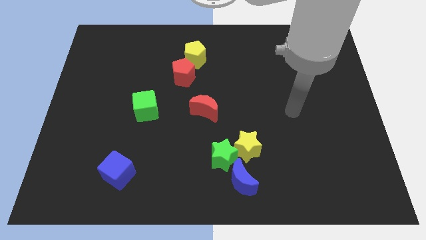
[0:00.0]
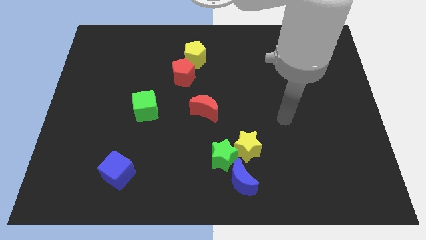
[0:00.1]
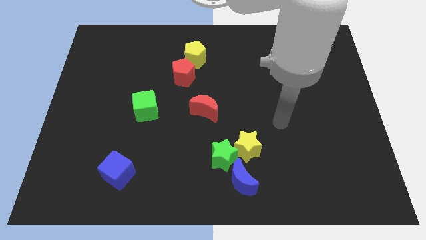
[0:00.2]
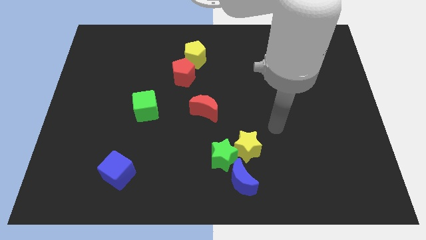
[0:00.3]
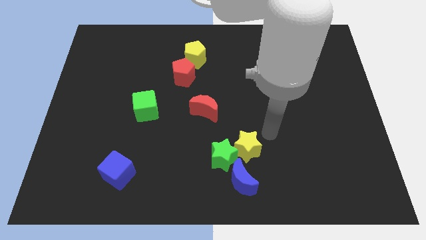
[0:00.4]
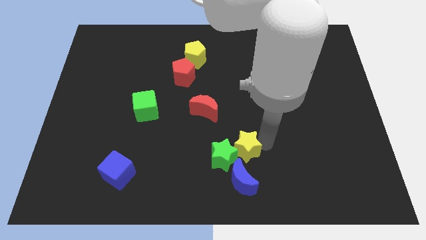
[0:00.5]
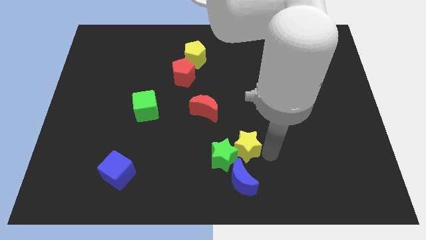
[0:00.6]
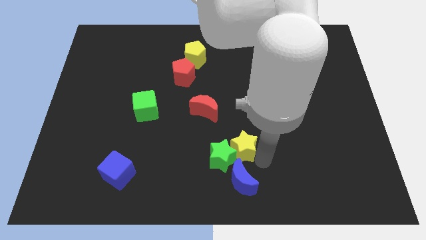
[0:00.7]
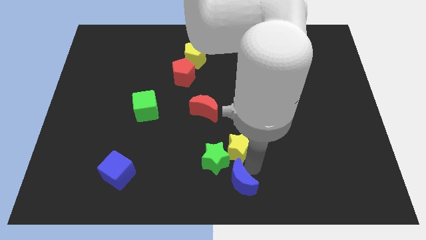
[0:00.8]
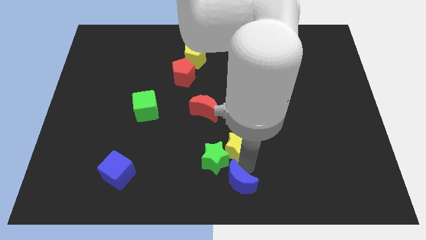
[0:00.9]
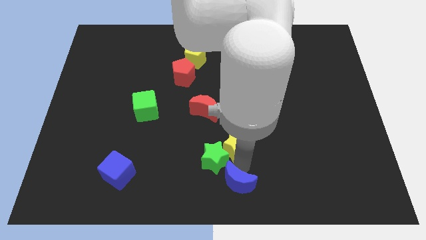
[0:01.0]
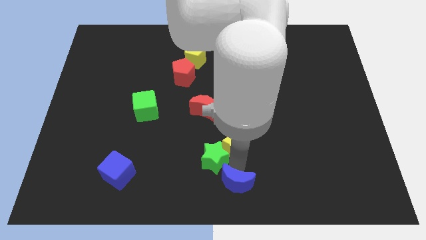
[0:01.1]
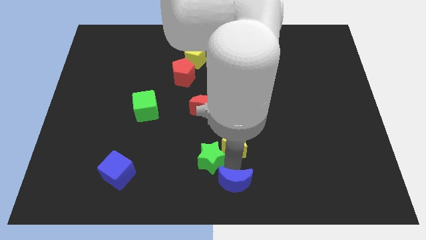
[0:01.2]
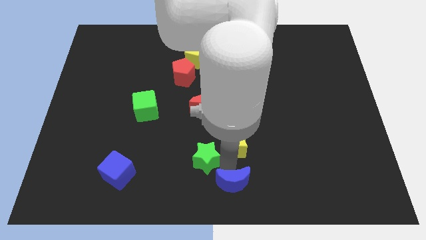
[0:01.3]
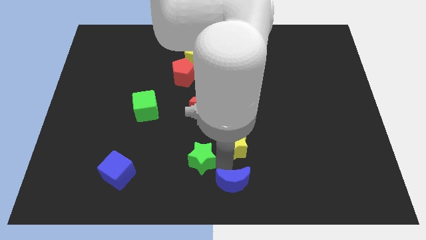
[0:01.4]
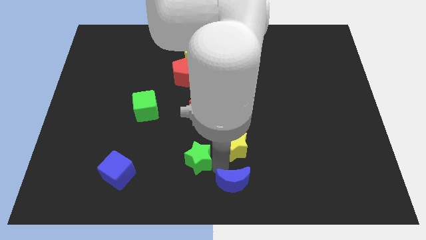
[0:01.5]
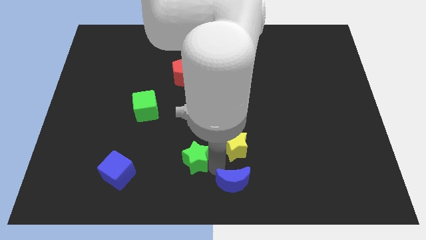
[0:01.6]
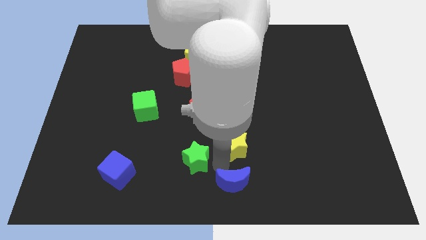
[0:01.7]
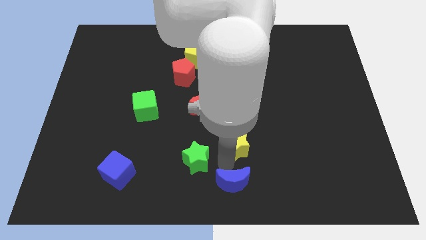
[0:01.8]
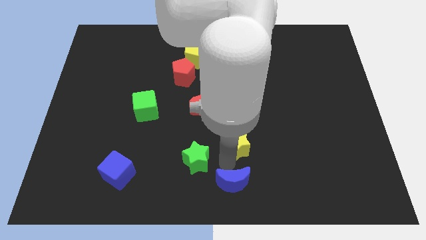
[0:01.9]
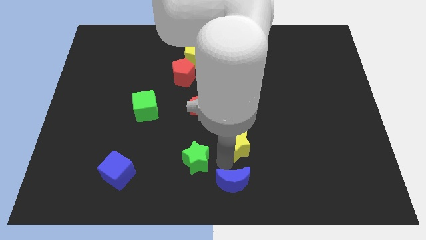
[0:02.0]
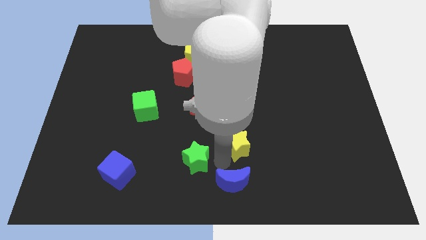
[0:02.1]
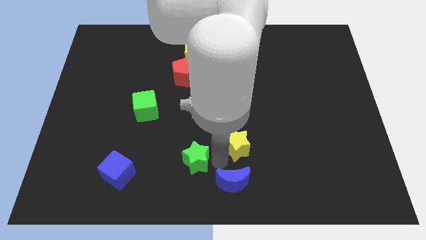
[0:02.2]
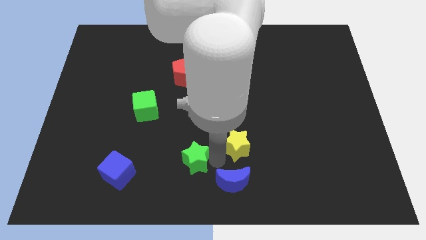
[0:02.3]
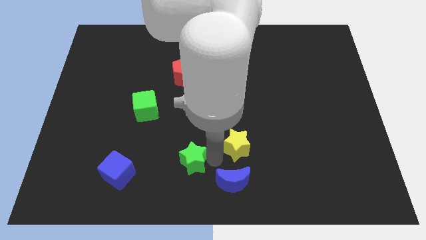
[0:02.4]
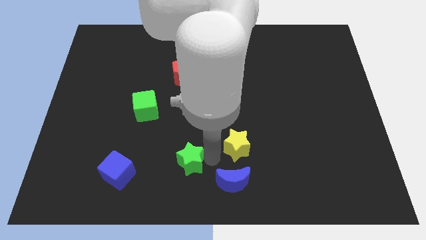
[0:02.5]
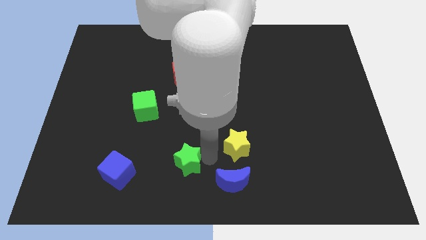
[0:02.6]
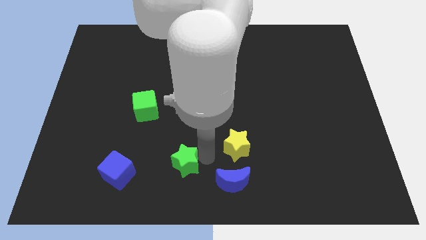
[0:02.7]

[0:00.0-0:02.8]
pull the green star apart from the yellow star and blue moon

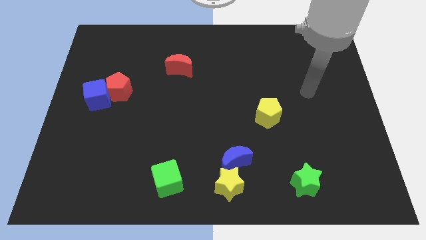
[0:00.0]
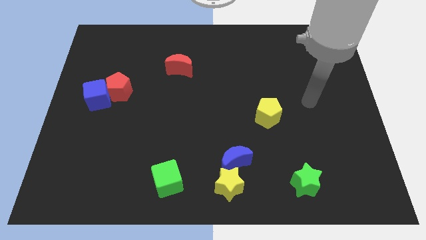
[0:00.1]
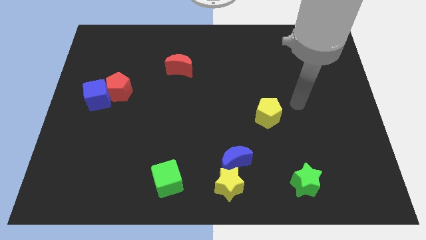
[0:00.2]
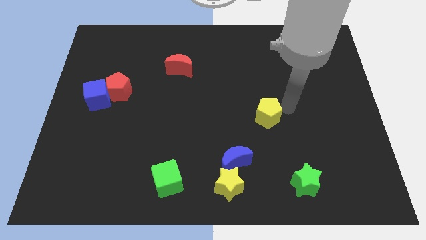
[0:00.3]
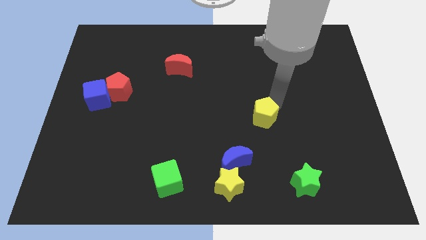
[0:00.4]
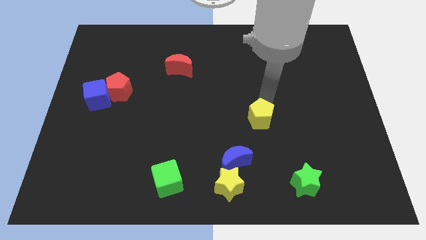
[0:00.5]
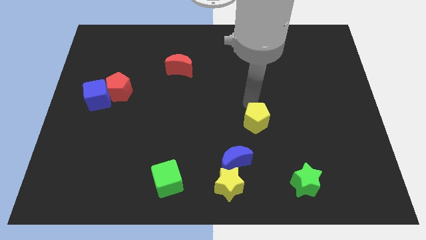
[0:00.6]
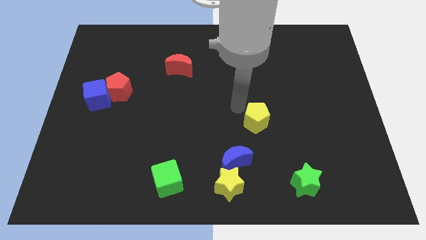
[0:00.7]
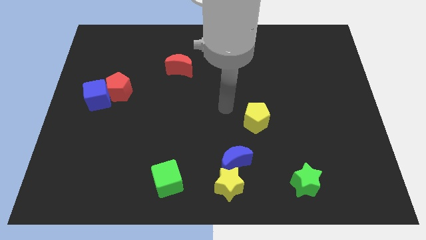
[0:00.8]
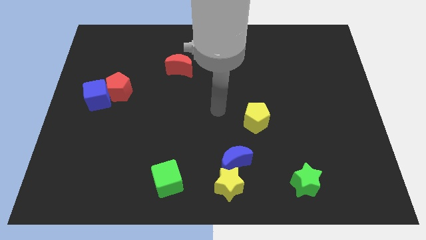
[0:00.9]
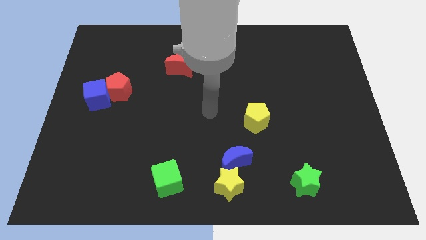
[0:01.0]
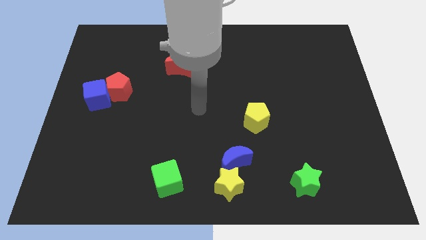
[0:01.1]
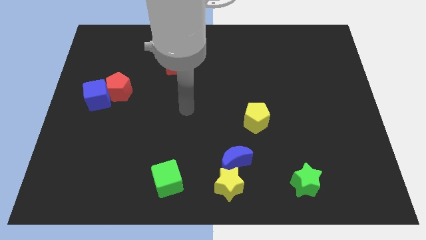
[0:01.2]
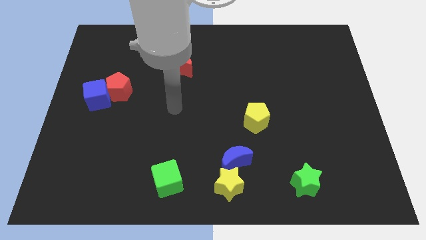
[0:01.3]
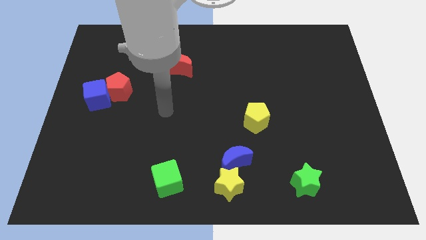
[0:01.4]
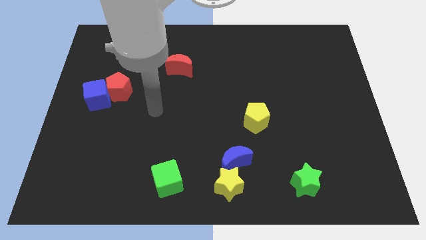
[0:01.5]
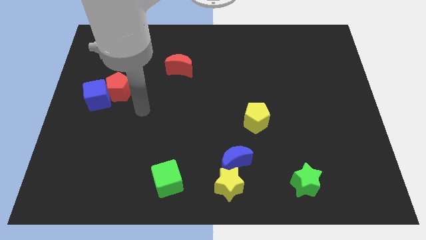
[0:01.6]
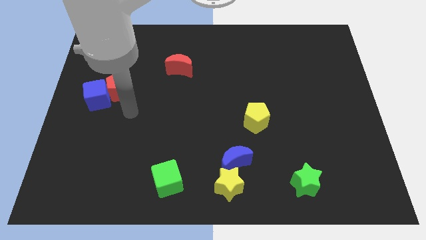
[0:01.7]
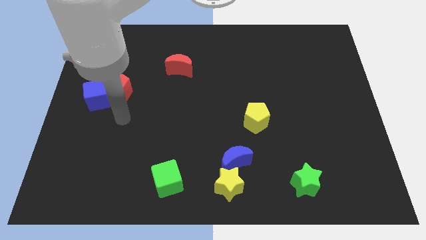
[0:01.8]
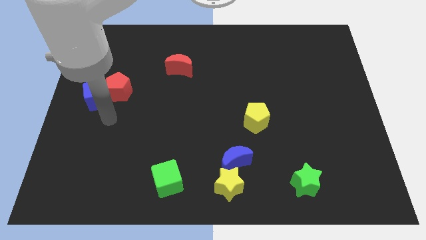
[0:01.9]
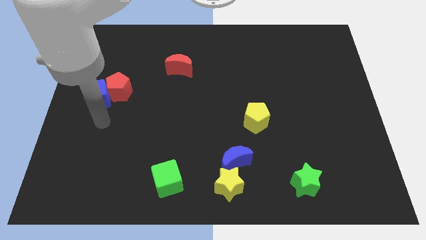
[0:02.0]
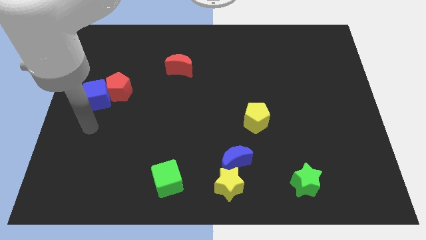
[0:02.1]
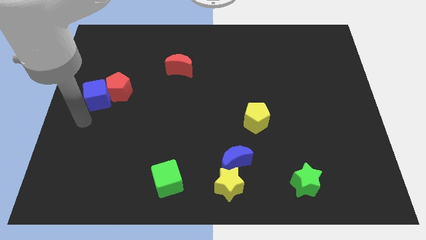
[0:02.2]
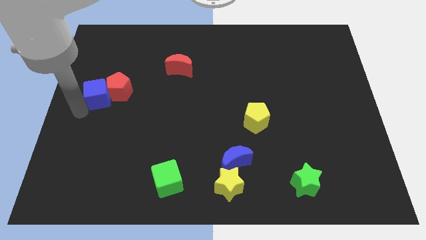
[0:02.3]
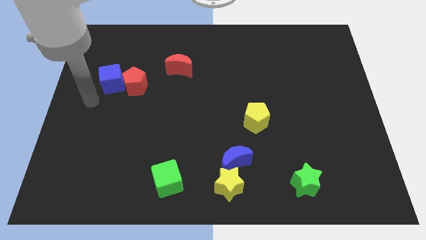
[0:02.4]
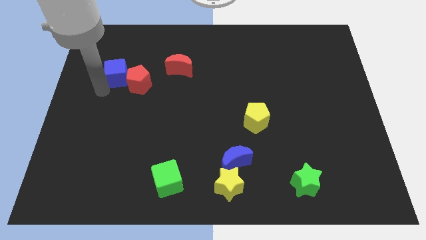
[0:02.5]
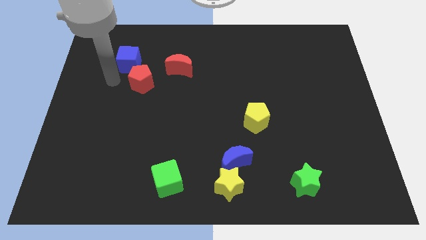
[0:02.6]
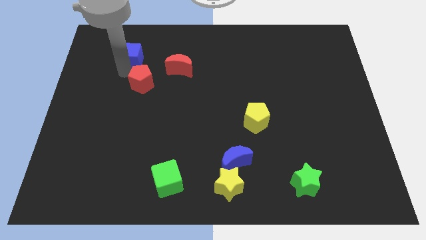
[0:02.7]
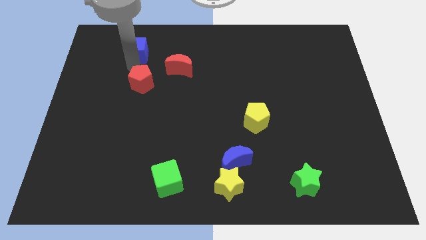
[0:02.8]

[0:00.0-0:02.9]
move the red pentagon away from the blue cube

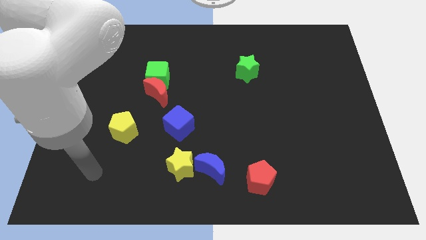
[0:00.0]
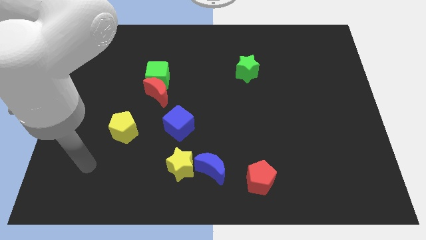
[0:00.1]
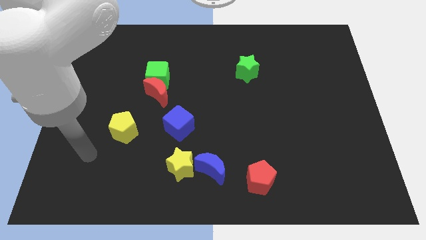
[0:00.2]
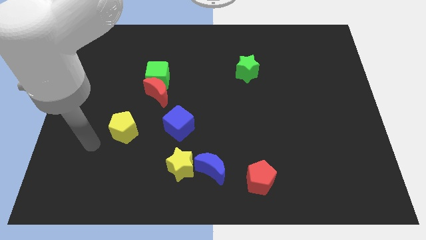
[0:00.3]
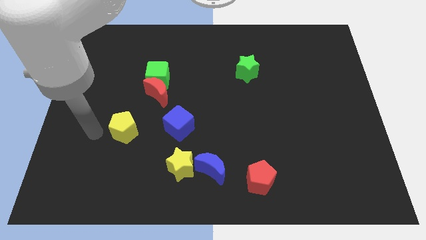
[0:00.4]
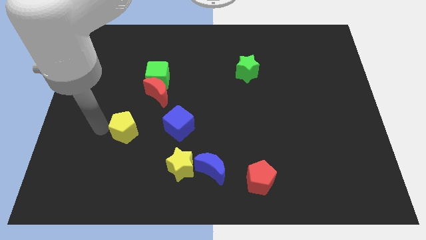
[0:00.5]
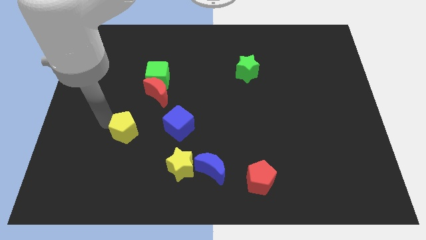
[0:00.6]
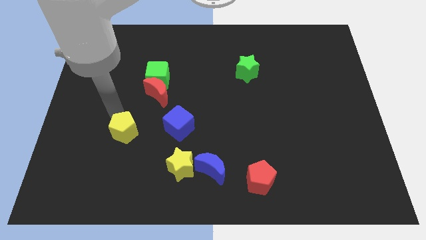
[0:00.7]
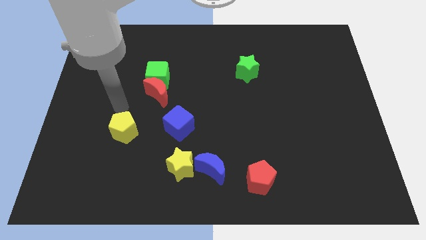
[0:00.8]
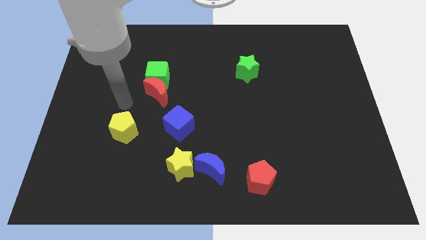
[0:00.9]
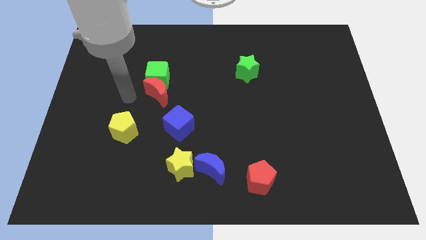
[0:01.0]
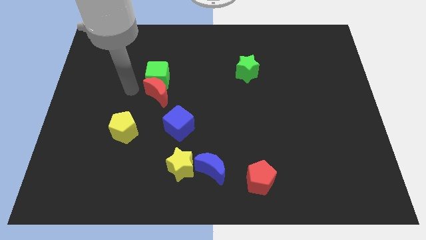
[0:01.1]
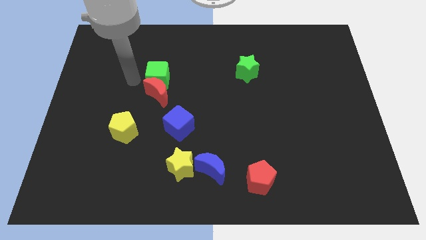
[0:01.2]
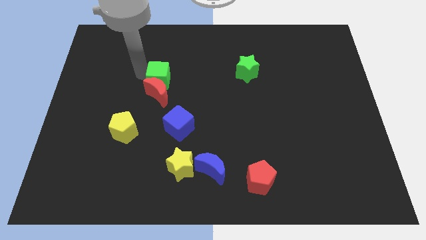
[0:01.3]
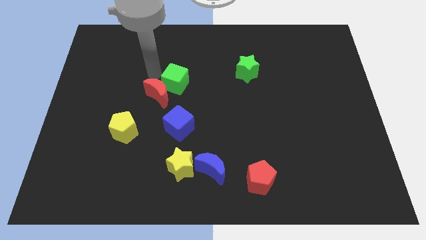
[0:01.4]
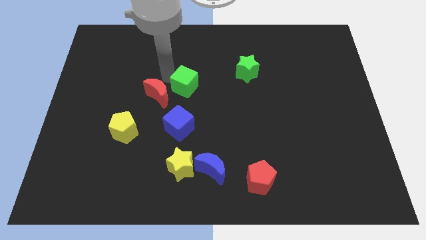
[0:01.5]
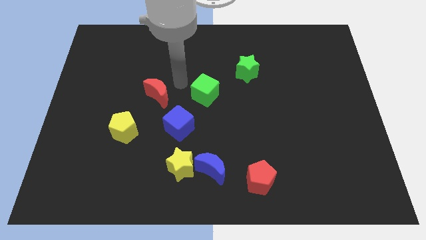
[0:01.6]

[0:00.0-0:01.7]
separate the red moon from the green cube

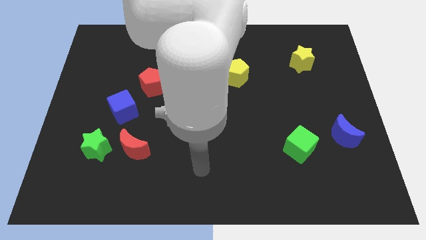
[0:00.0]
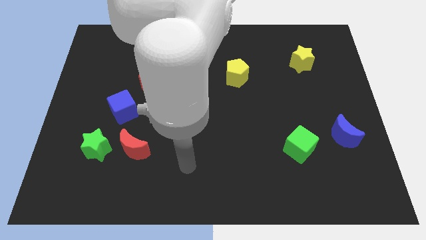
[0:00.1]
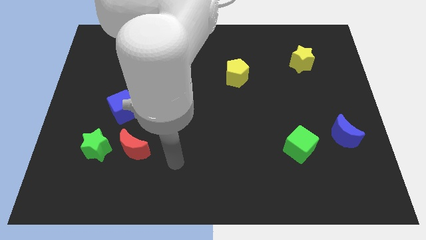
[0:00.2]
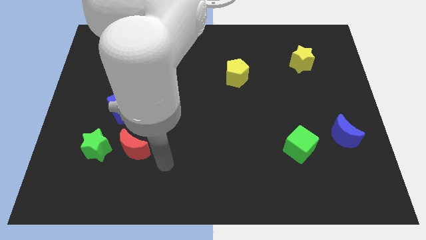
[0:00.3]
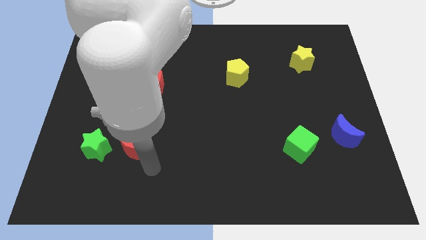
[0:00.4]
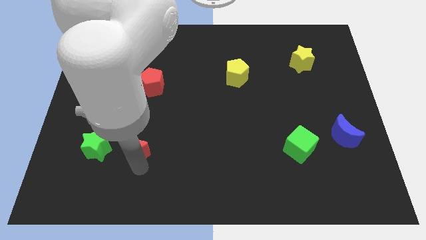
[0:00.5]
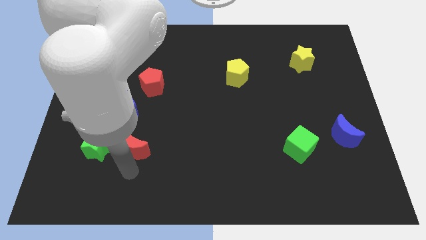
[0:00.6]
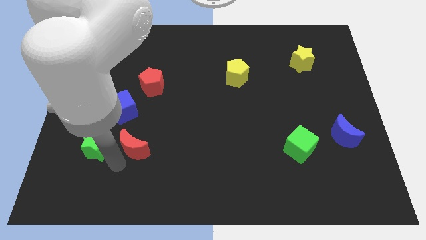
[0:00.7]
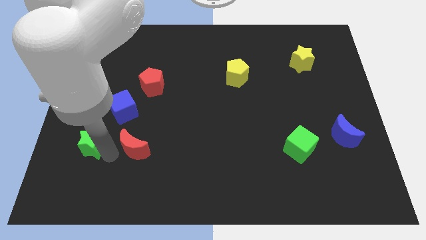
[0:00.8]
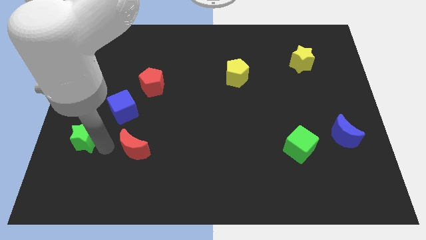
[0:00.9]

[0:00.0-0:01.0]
pull the red moon apart from the green star

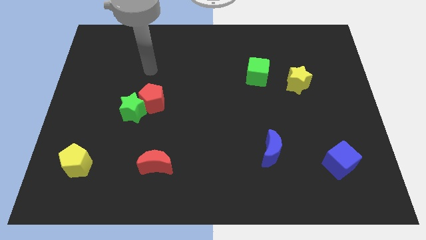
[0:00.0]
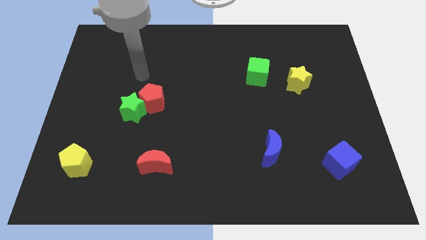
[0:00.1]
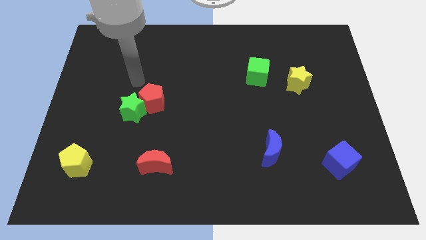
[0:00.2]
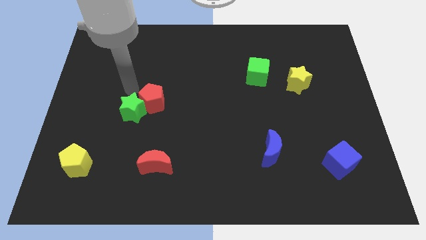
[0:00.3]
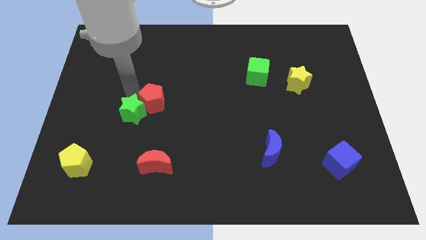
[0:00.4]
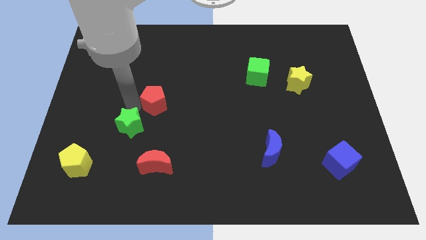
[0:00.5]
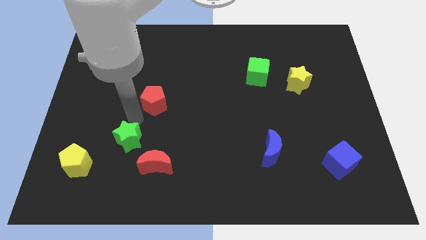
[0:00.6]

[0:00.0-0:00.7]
move the red pentagon away from the green star

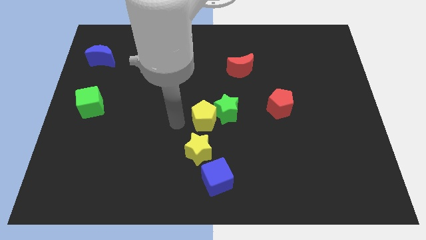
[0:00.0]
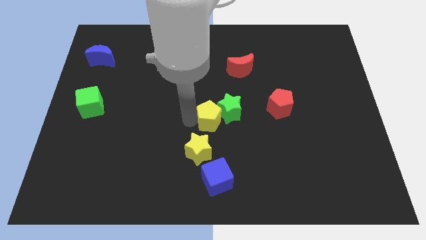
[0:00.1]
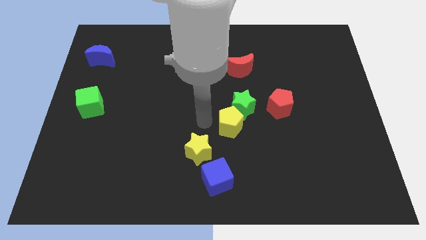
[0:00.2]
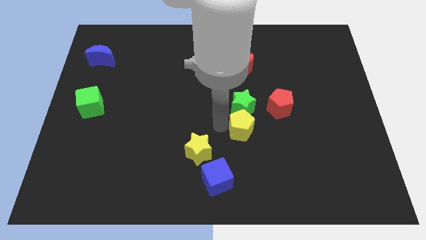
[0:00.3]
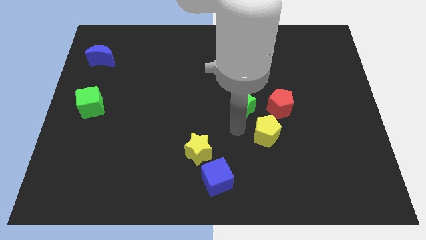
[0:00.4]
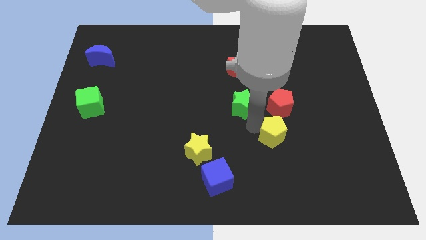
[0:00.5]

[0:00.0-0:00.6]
pull the green star apart from the yellow pentagon
